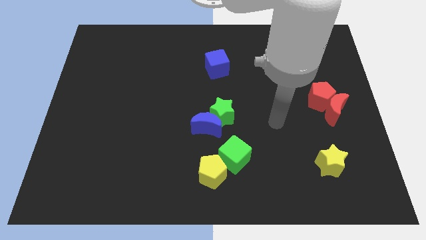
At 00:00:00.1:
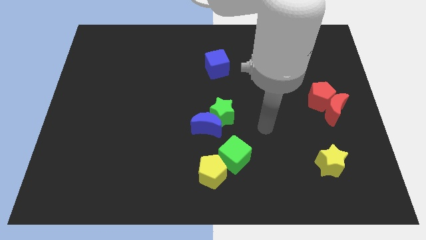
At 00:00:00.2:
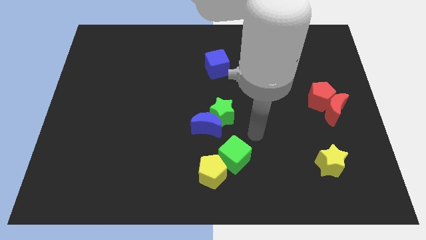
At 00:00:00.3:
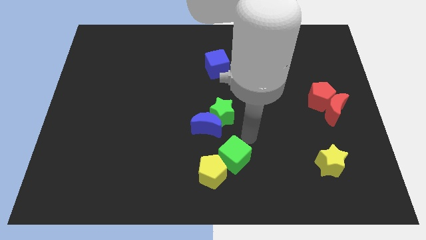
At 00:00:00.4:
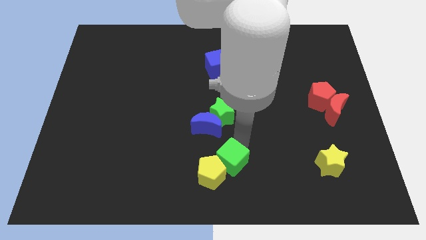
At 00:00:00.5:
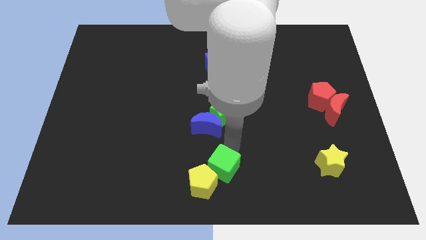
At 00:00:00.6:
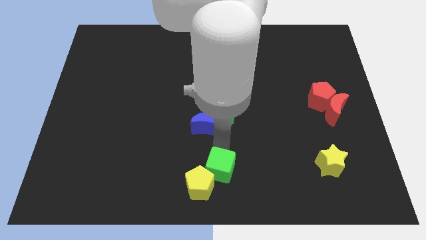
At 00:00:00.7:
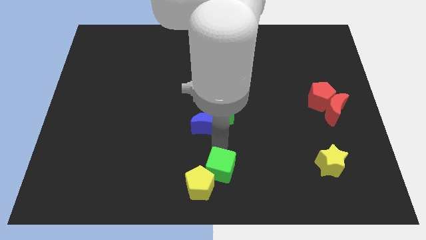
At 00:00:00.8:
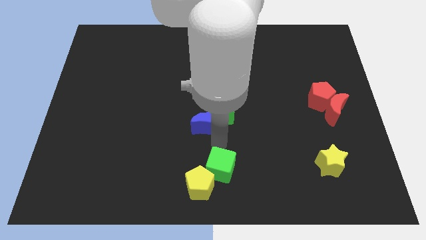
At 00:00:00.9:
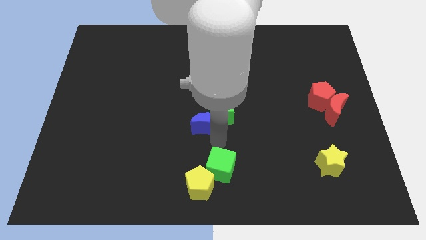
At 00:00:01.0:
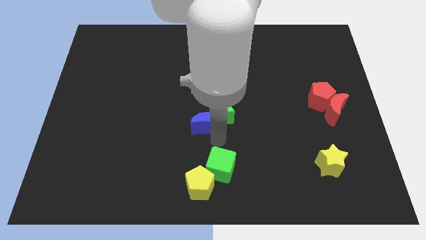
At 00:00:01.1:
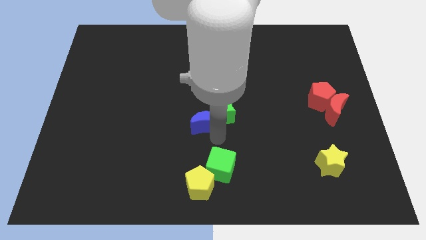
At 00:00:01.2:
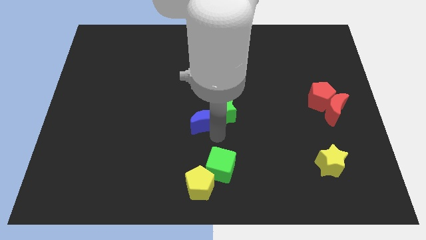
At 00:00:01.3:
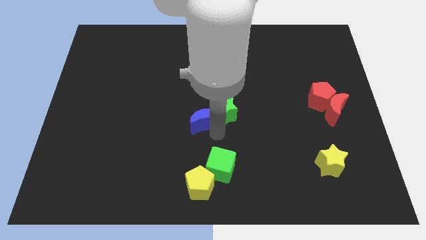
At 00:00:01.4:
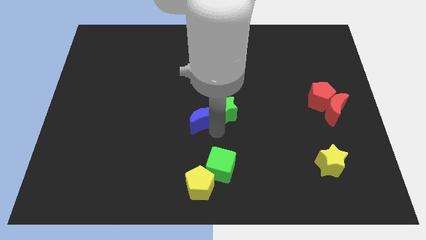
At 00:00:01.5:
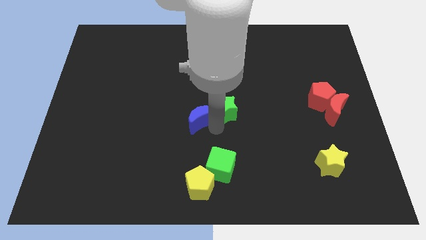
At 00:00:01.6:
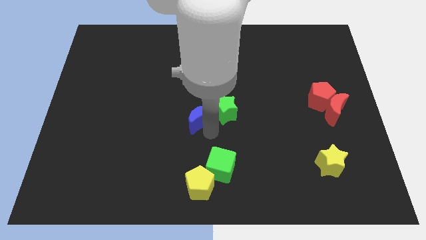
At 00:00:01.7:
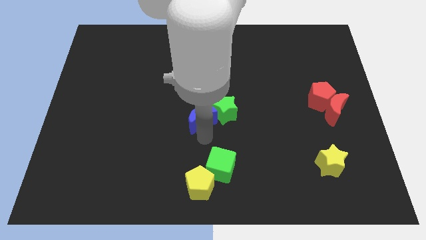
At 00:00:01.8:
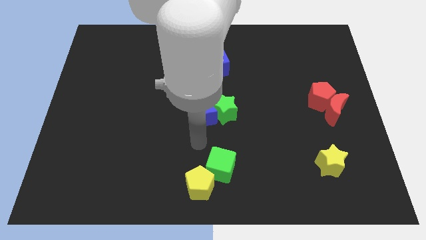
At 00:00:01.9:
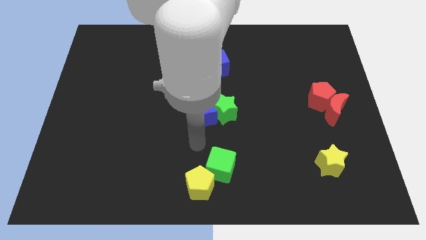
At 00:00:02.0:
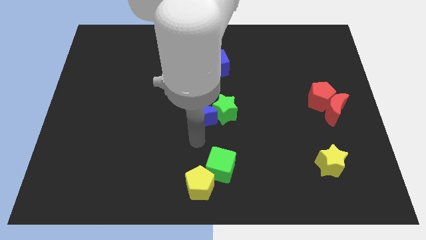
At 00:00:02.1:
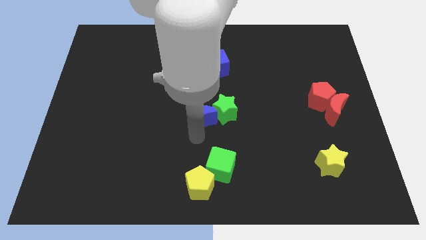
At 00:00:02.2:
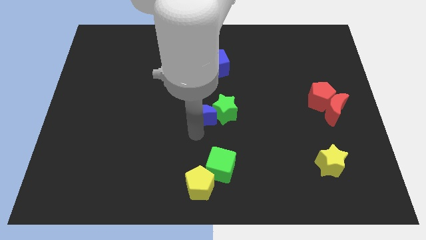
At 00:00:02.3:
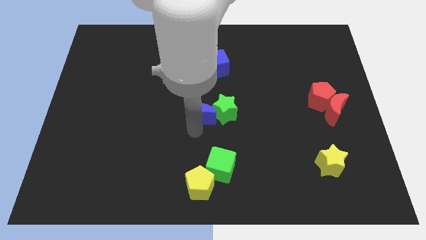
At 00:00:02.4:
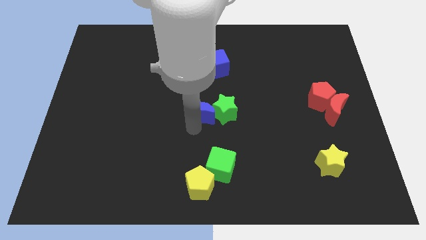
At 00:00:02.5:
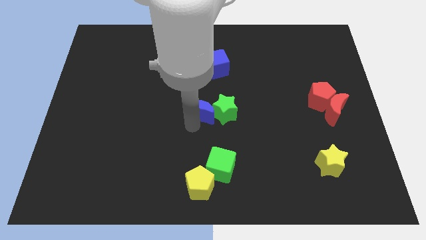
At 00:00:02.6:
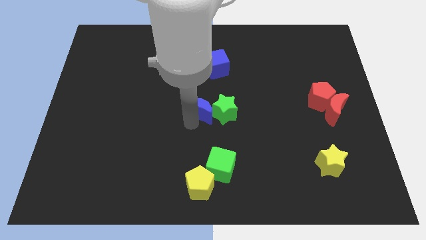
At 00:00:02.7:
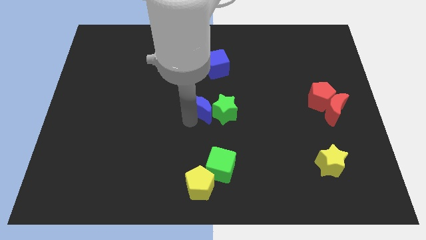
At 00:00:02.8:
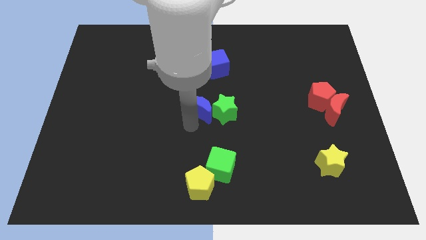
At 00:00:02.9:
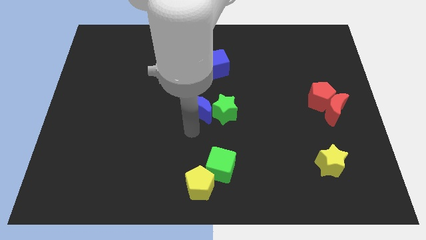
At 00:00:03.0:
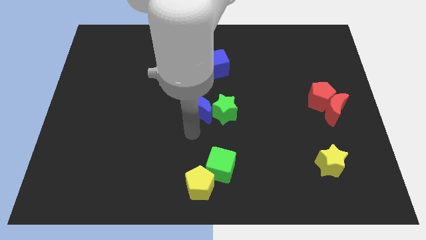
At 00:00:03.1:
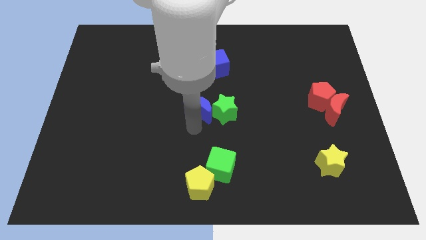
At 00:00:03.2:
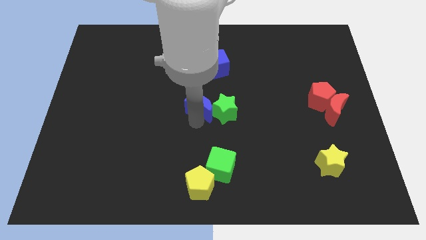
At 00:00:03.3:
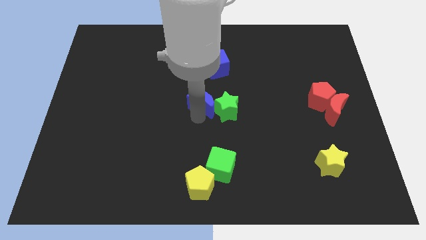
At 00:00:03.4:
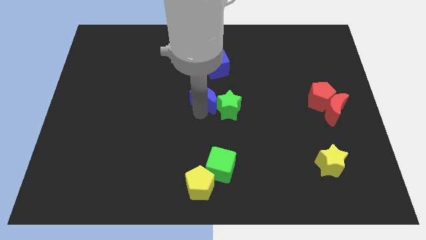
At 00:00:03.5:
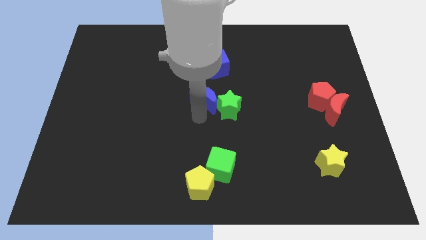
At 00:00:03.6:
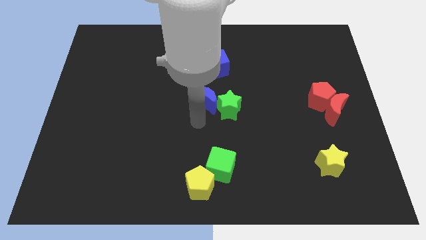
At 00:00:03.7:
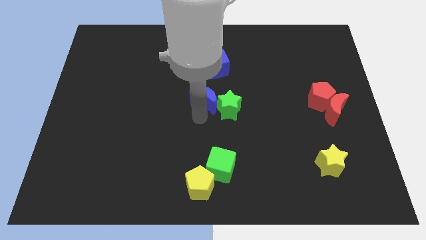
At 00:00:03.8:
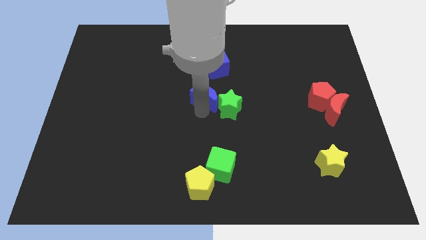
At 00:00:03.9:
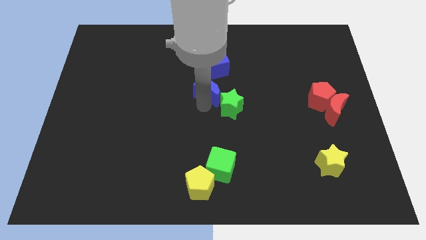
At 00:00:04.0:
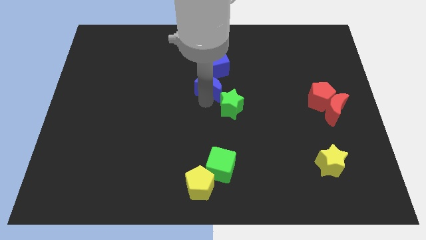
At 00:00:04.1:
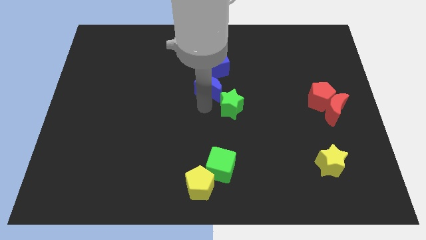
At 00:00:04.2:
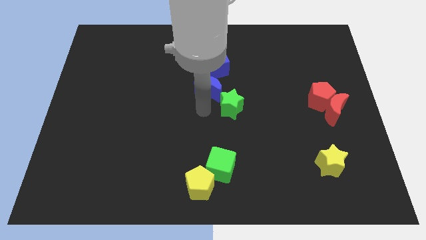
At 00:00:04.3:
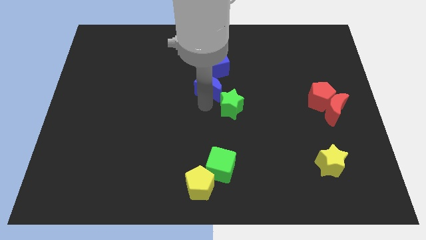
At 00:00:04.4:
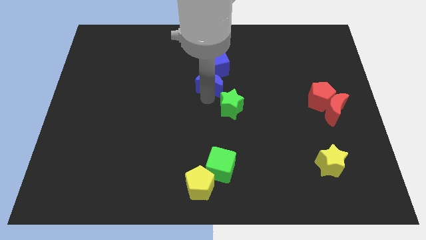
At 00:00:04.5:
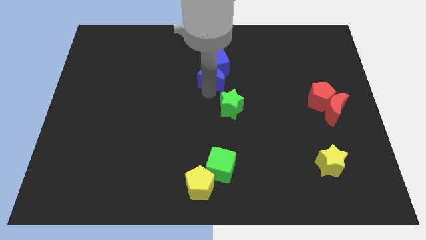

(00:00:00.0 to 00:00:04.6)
move the blue moon close to the blue cube

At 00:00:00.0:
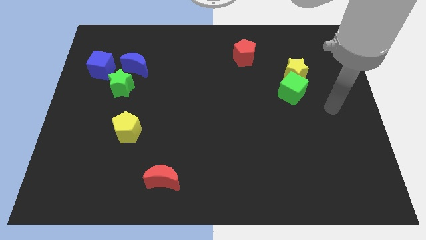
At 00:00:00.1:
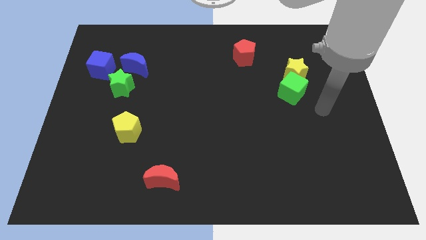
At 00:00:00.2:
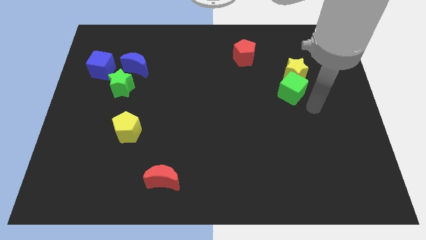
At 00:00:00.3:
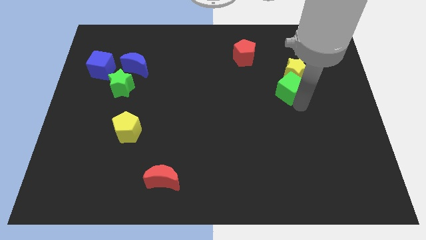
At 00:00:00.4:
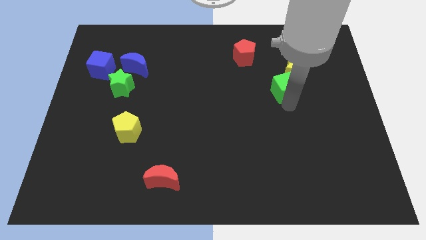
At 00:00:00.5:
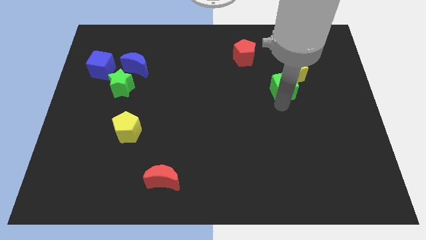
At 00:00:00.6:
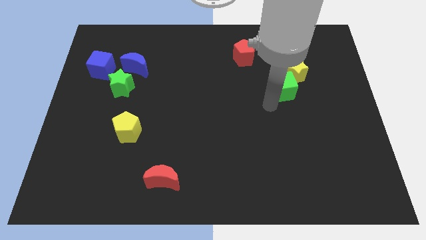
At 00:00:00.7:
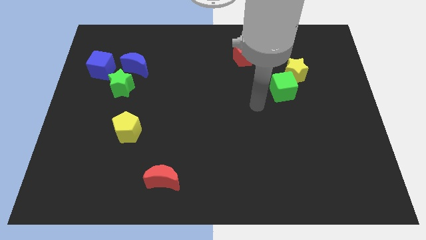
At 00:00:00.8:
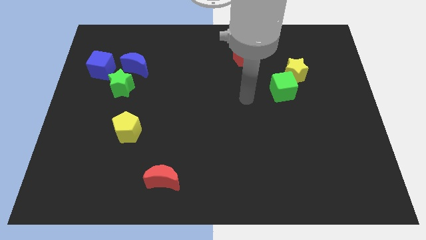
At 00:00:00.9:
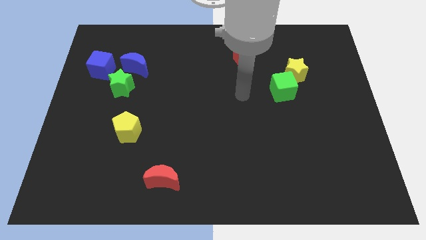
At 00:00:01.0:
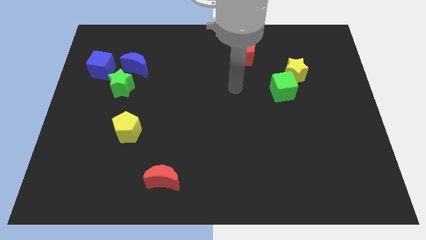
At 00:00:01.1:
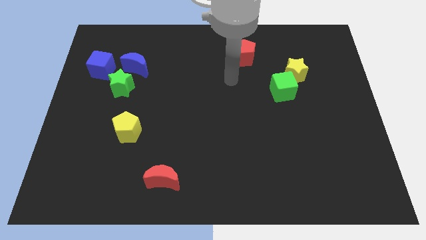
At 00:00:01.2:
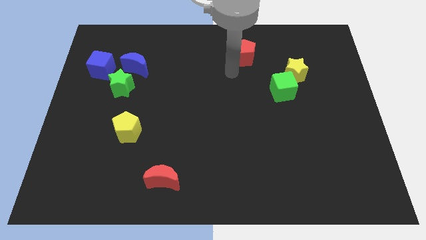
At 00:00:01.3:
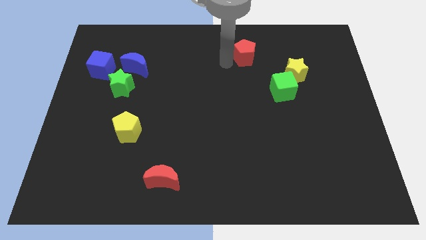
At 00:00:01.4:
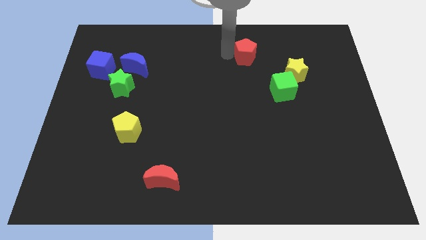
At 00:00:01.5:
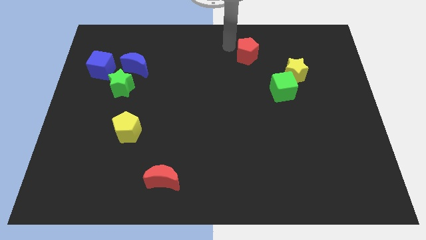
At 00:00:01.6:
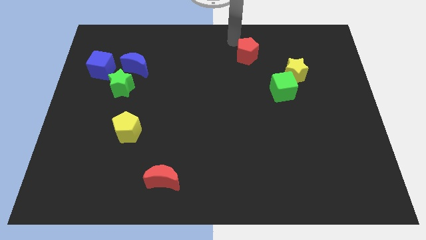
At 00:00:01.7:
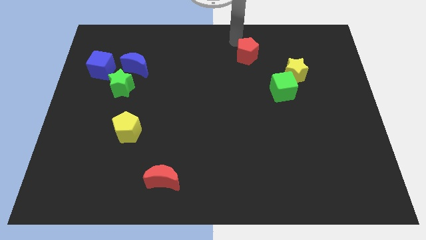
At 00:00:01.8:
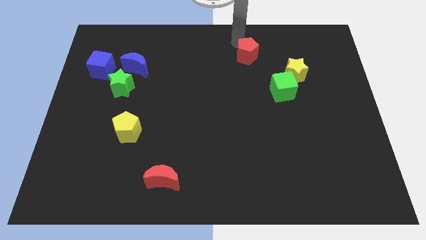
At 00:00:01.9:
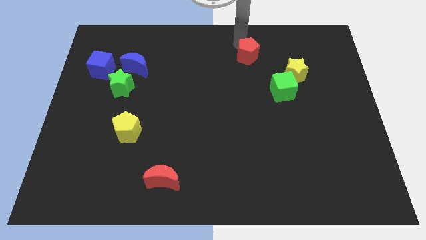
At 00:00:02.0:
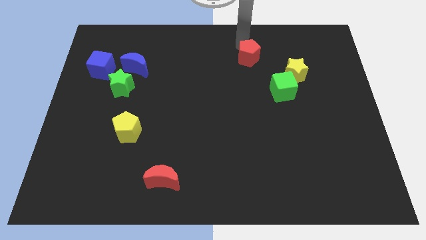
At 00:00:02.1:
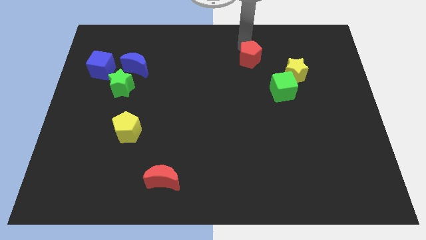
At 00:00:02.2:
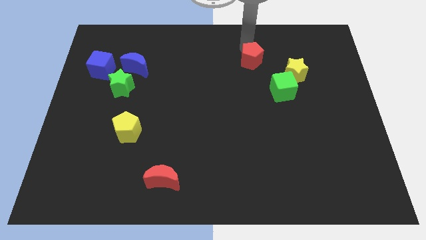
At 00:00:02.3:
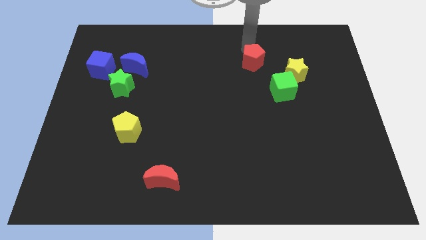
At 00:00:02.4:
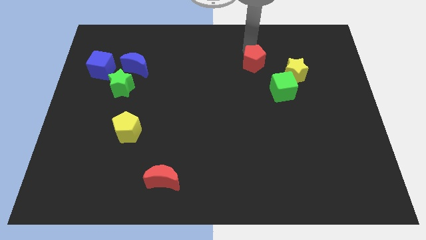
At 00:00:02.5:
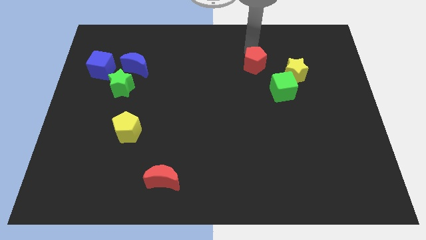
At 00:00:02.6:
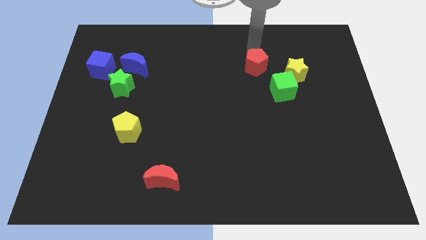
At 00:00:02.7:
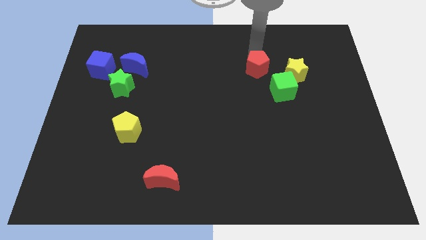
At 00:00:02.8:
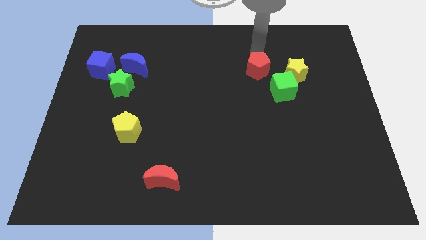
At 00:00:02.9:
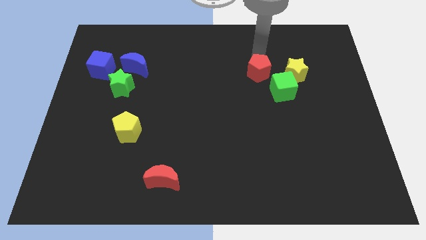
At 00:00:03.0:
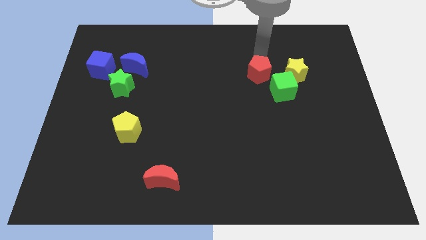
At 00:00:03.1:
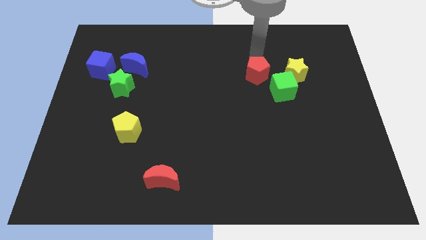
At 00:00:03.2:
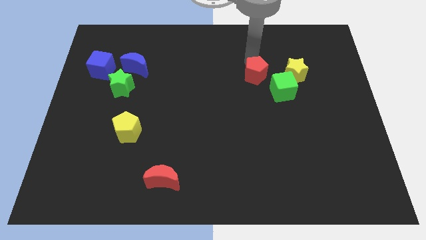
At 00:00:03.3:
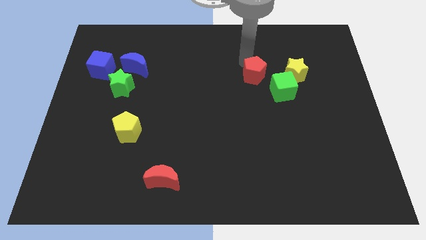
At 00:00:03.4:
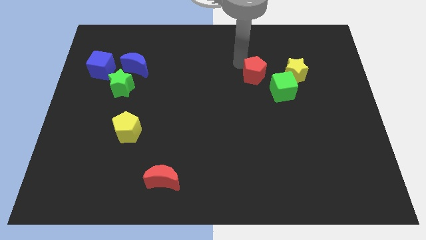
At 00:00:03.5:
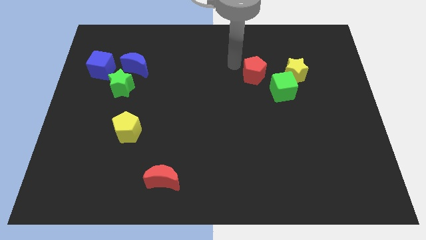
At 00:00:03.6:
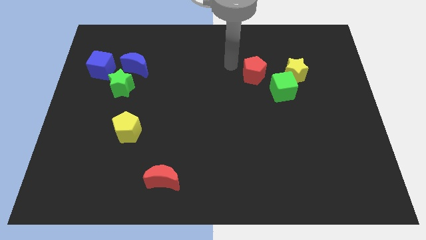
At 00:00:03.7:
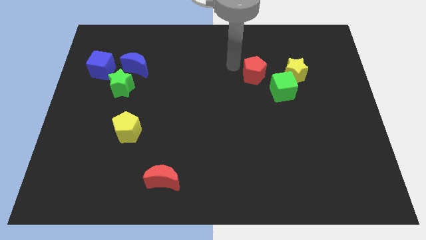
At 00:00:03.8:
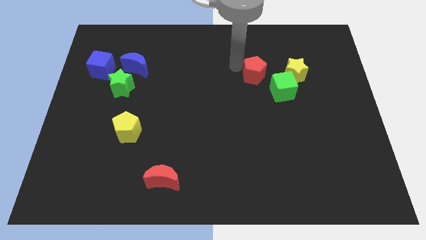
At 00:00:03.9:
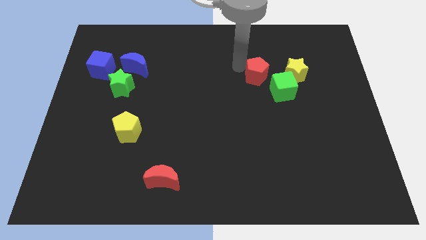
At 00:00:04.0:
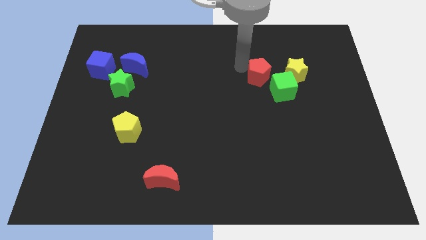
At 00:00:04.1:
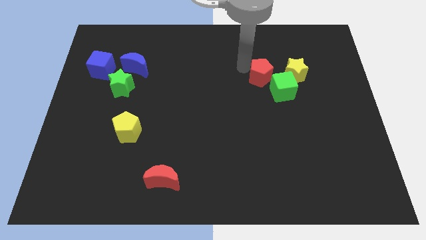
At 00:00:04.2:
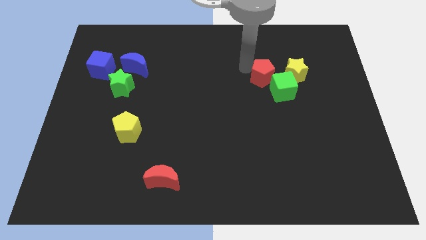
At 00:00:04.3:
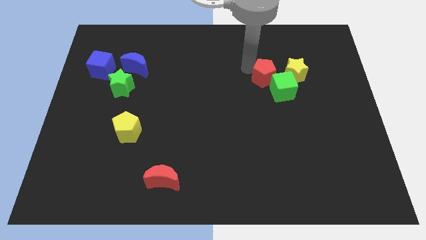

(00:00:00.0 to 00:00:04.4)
move the red pentagon to the green cube
